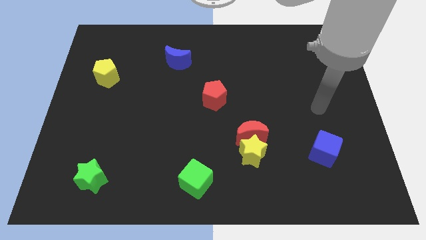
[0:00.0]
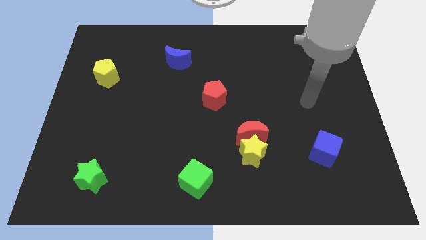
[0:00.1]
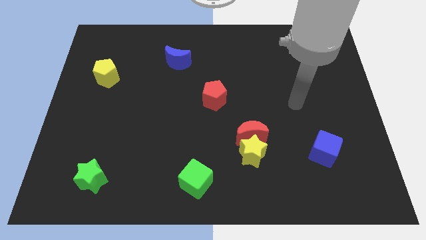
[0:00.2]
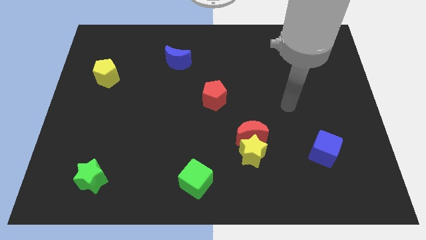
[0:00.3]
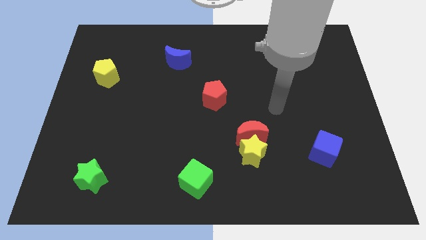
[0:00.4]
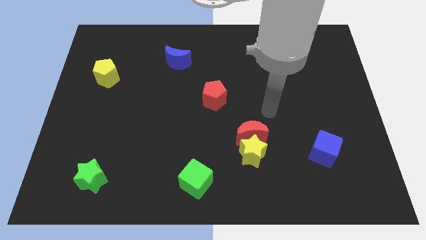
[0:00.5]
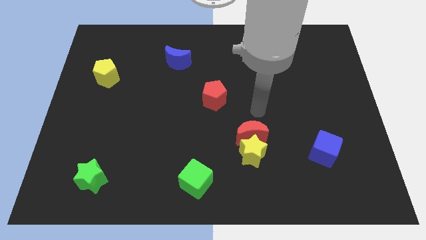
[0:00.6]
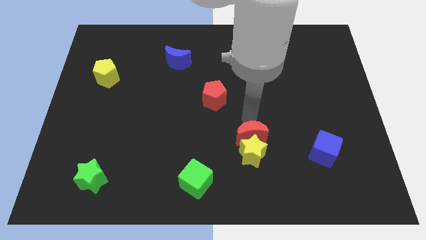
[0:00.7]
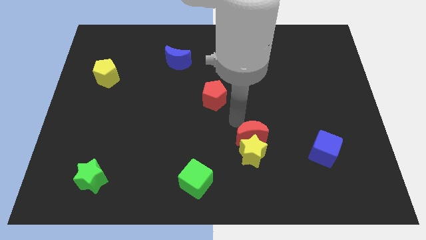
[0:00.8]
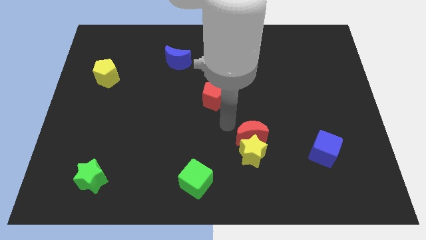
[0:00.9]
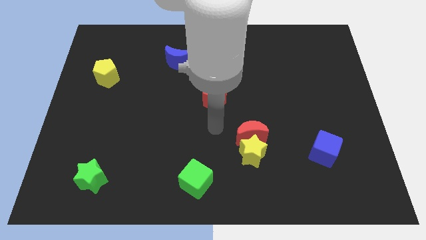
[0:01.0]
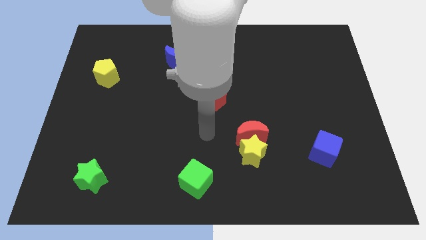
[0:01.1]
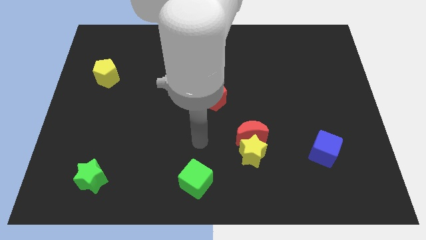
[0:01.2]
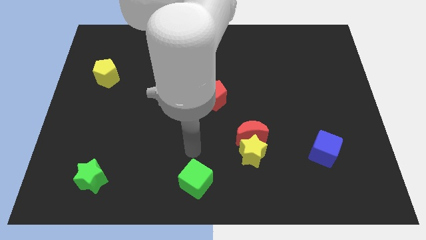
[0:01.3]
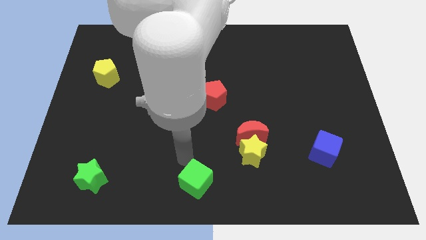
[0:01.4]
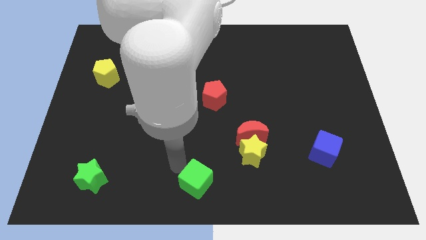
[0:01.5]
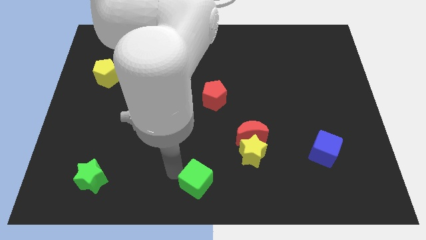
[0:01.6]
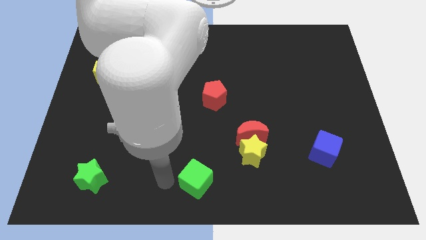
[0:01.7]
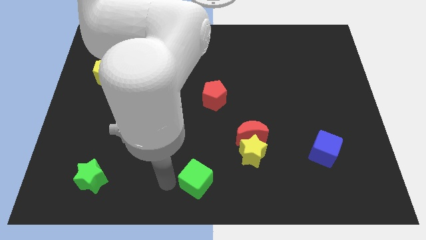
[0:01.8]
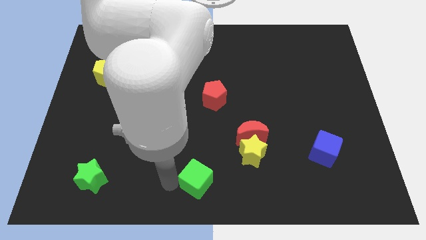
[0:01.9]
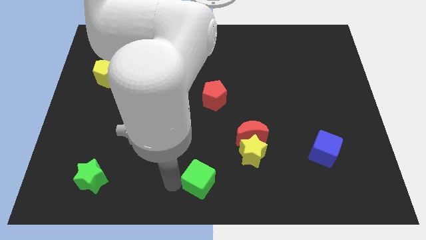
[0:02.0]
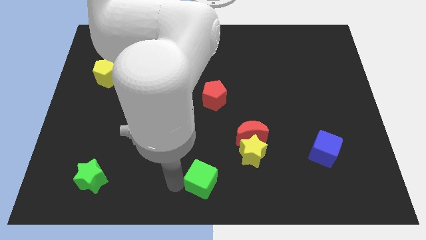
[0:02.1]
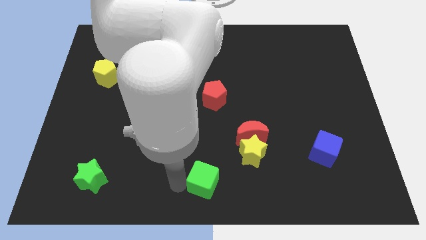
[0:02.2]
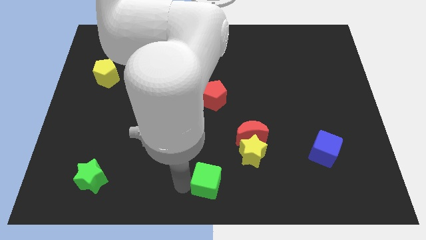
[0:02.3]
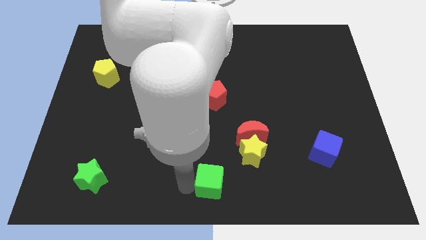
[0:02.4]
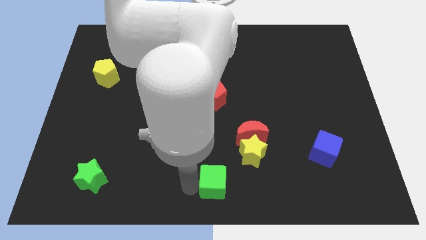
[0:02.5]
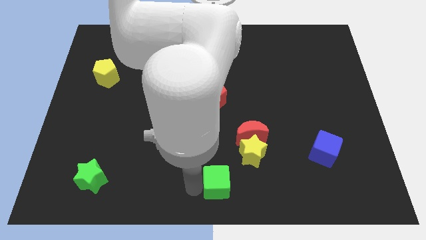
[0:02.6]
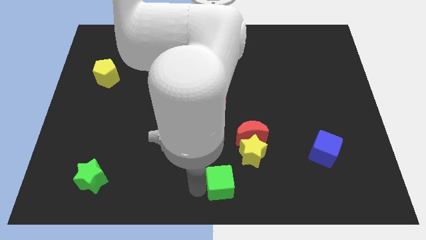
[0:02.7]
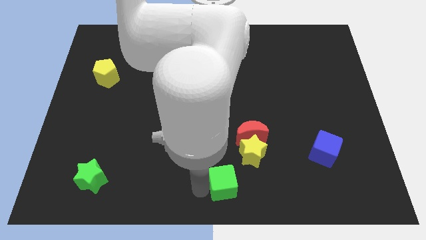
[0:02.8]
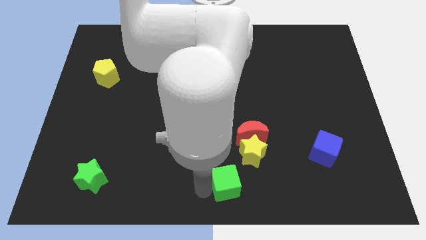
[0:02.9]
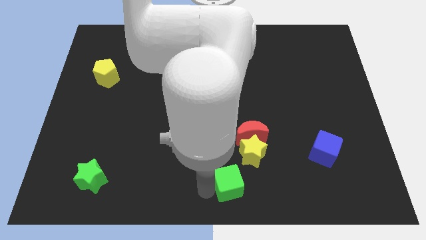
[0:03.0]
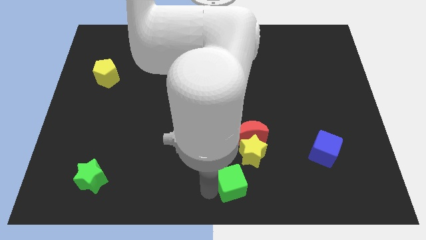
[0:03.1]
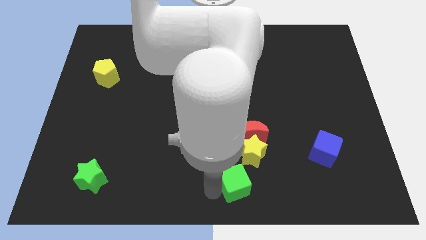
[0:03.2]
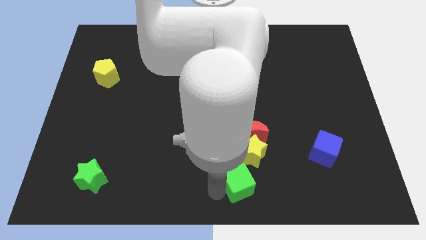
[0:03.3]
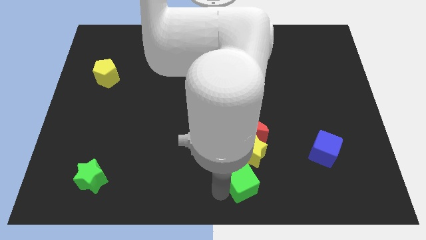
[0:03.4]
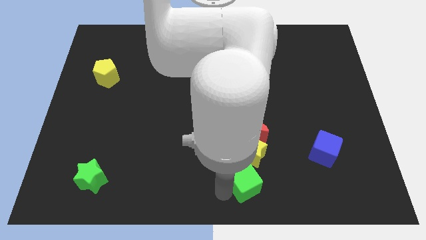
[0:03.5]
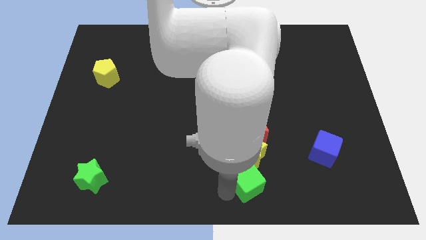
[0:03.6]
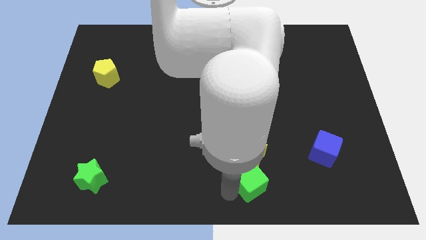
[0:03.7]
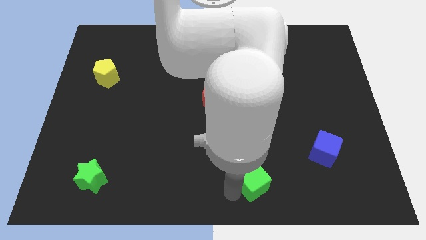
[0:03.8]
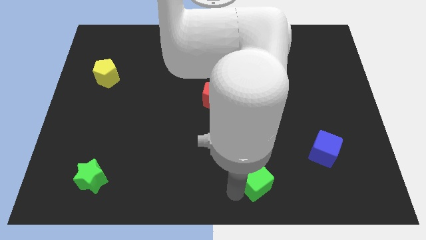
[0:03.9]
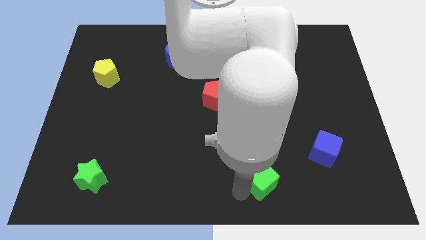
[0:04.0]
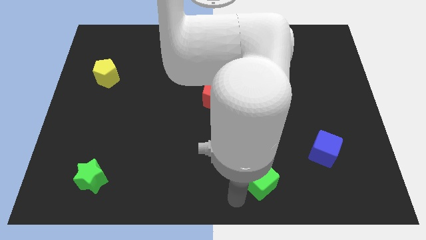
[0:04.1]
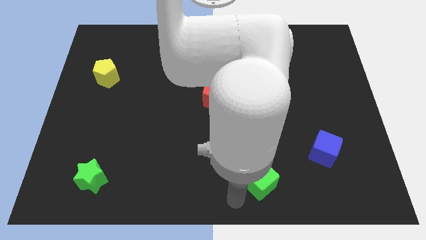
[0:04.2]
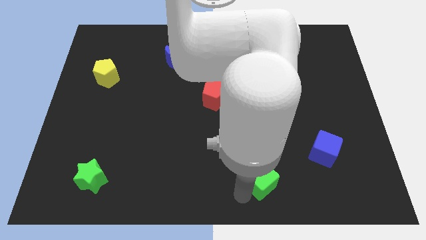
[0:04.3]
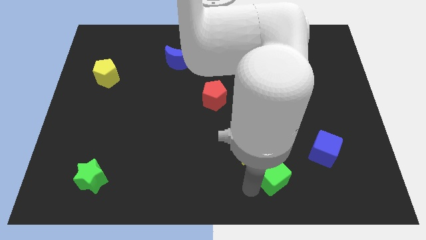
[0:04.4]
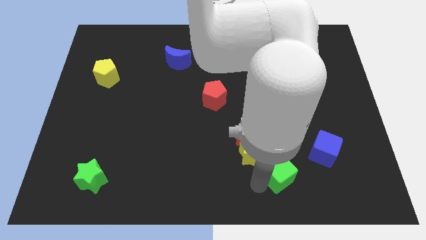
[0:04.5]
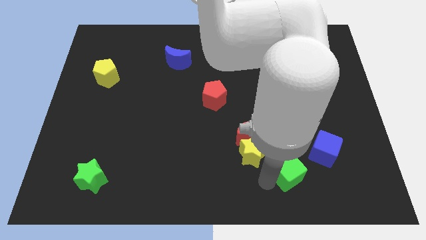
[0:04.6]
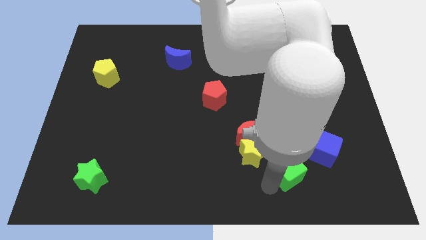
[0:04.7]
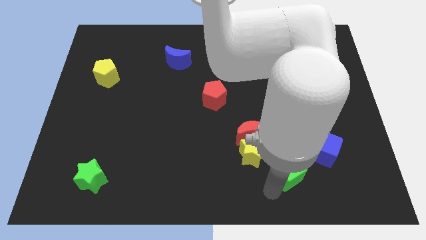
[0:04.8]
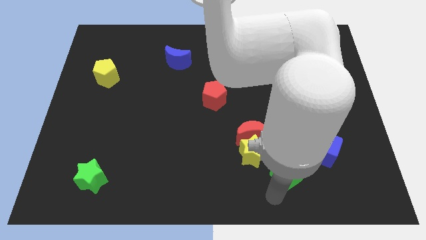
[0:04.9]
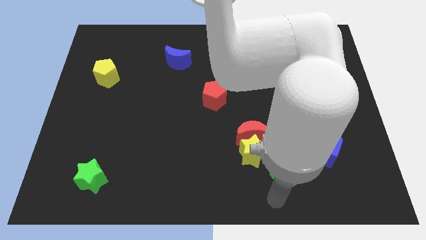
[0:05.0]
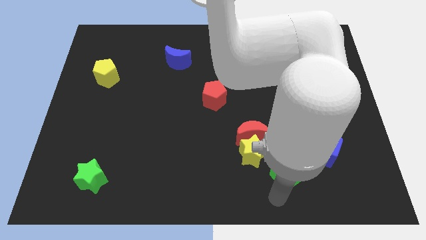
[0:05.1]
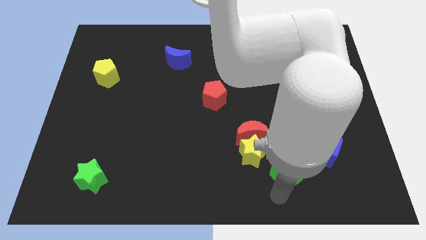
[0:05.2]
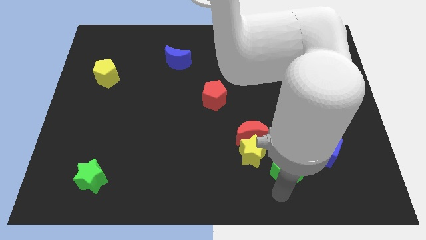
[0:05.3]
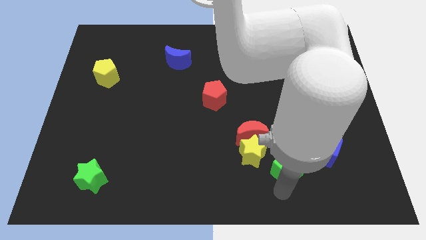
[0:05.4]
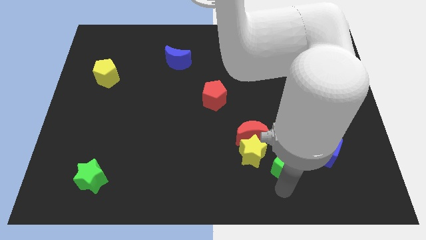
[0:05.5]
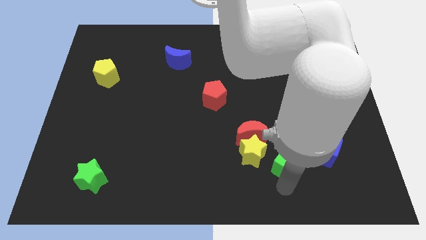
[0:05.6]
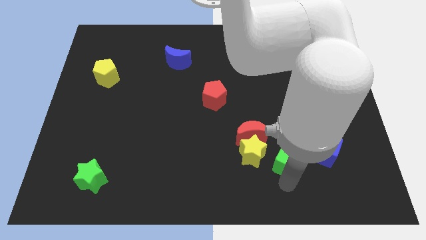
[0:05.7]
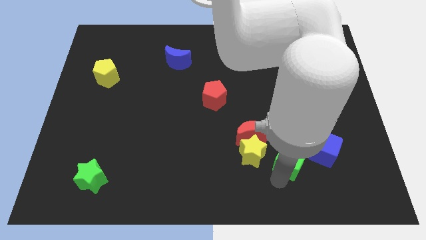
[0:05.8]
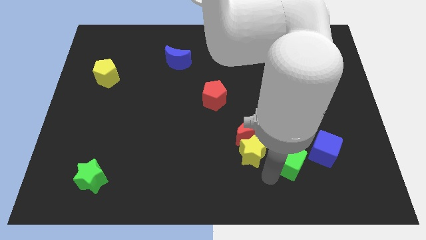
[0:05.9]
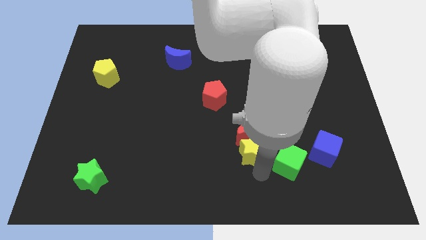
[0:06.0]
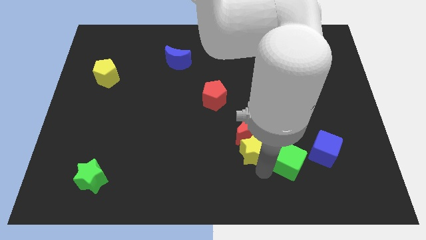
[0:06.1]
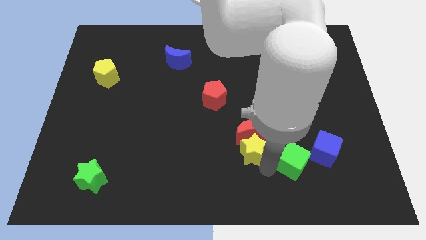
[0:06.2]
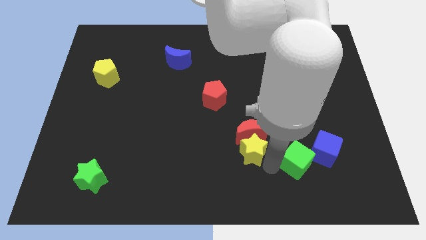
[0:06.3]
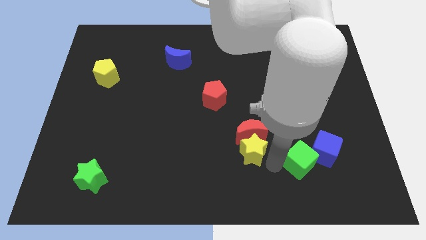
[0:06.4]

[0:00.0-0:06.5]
move the green cube close to the blue cube
